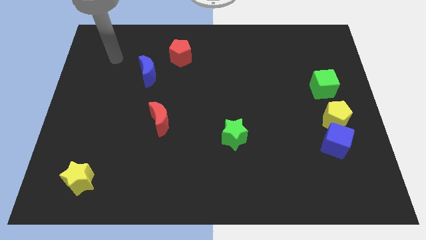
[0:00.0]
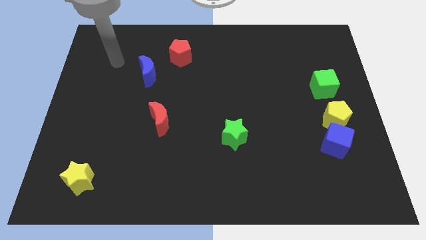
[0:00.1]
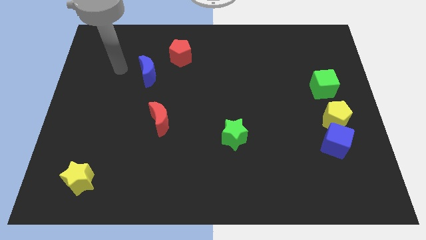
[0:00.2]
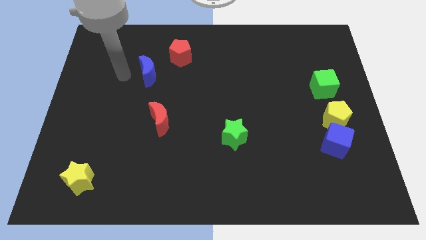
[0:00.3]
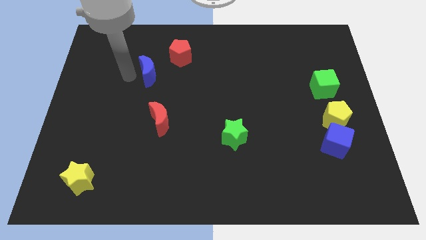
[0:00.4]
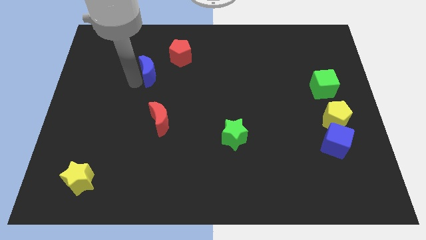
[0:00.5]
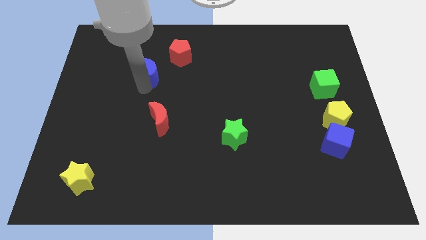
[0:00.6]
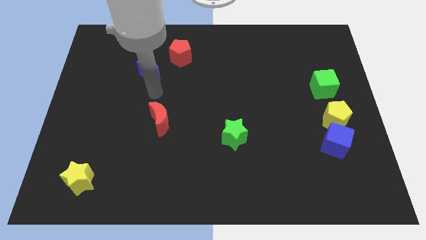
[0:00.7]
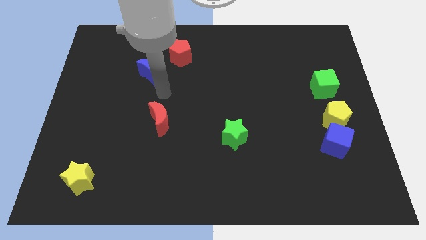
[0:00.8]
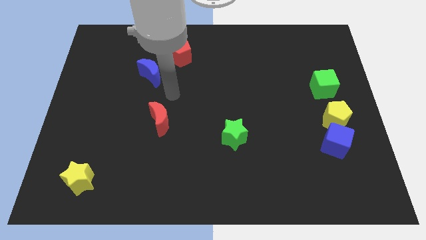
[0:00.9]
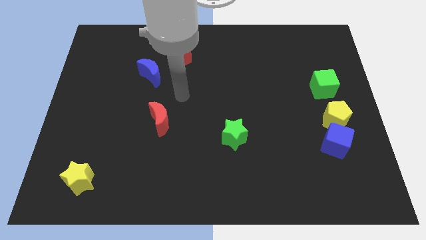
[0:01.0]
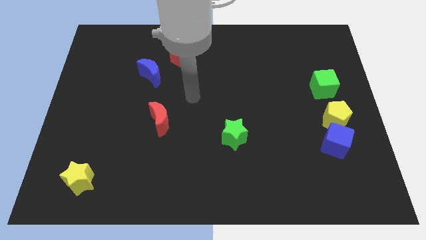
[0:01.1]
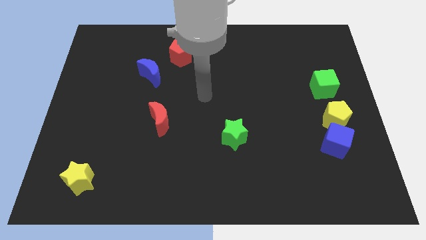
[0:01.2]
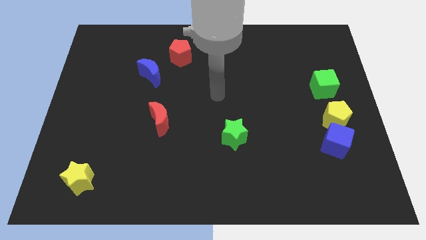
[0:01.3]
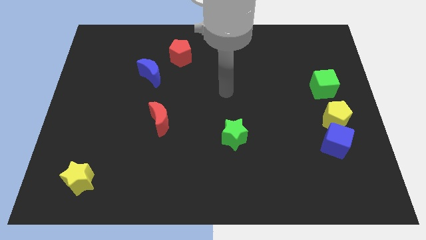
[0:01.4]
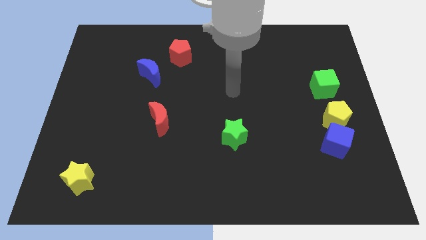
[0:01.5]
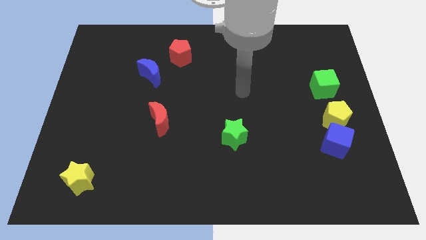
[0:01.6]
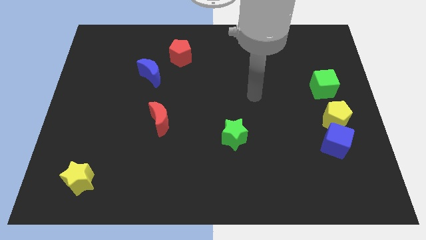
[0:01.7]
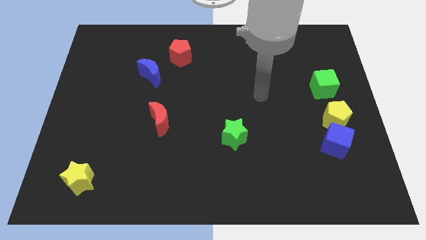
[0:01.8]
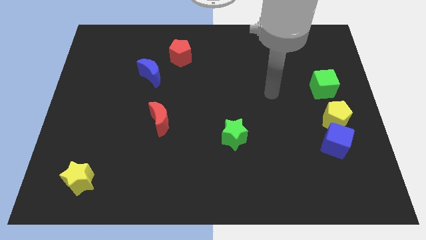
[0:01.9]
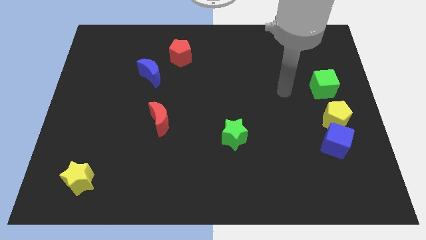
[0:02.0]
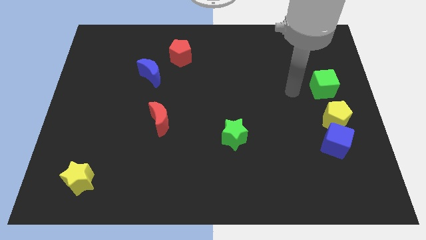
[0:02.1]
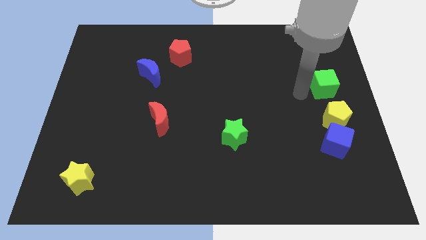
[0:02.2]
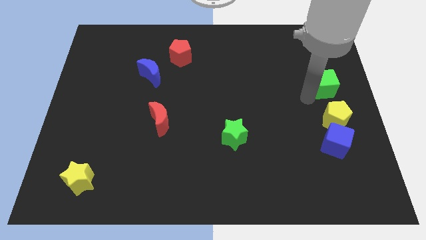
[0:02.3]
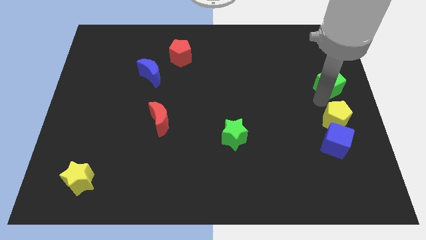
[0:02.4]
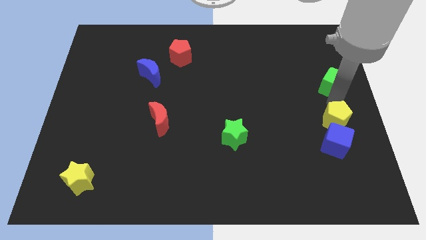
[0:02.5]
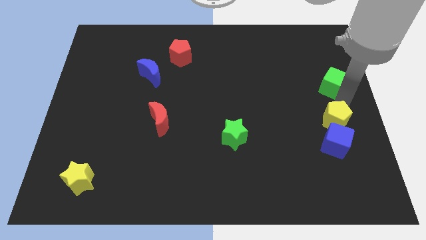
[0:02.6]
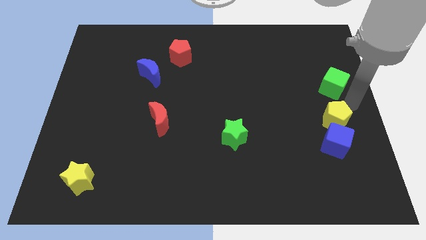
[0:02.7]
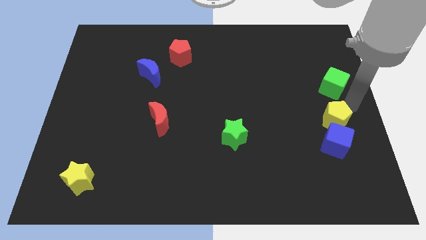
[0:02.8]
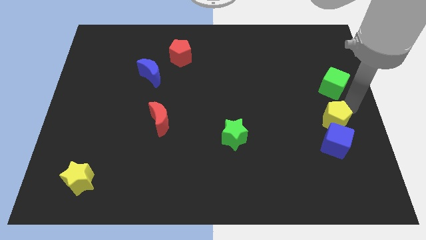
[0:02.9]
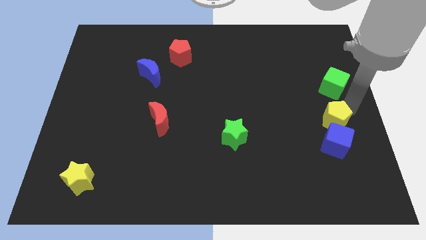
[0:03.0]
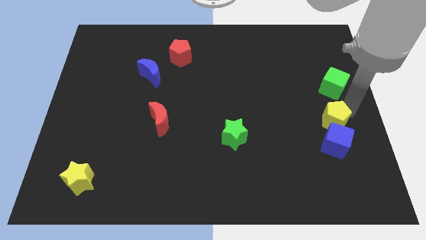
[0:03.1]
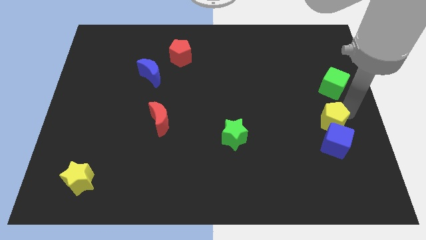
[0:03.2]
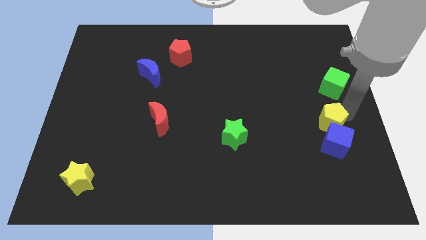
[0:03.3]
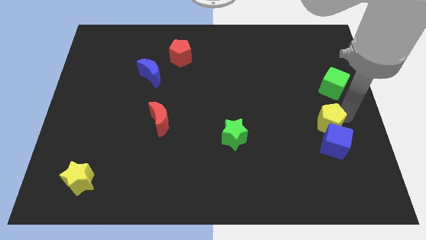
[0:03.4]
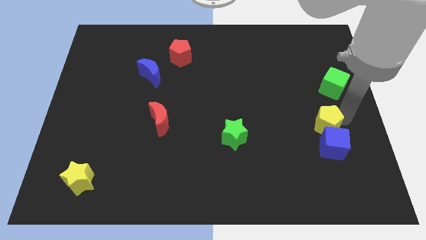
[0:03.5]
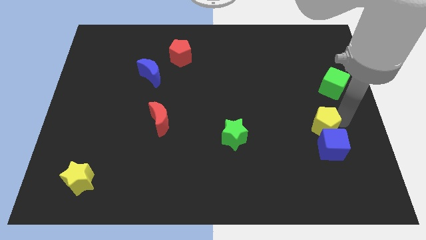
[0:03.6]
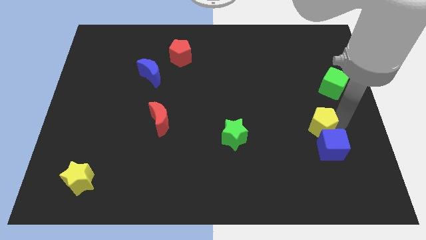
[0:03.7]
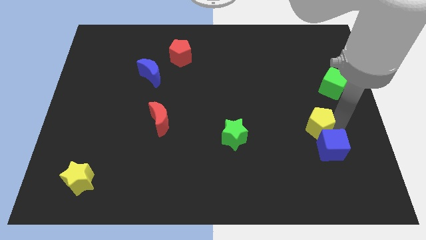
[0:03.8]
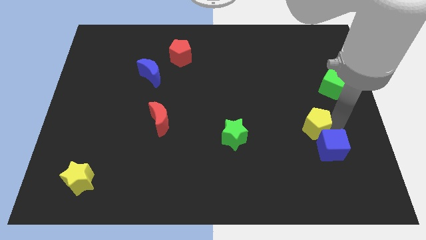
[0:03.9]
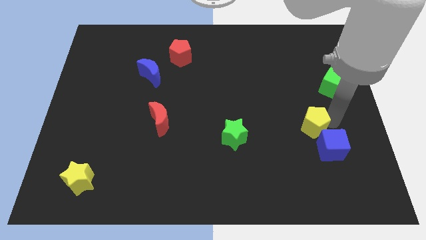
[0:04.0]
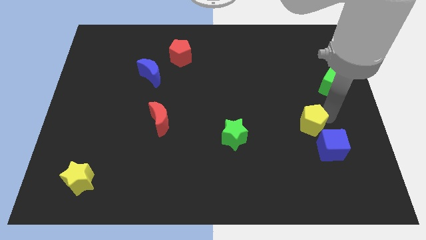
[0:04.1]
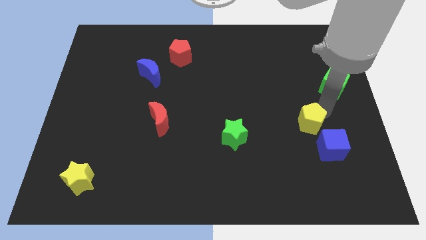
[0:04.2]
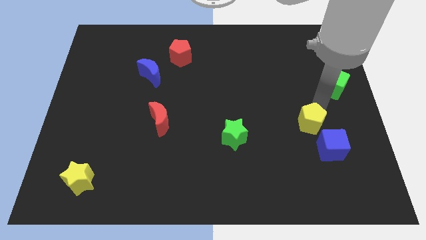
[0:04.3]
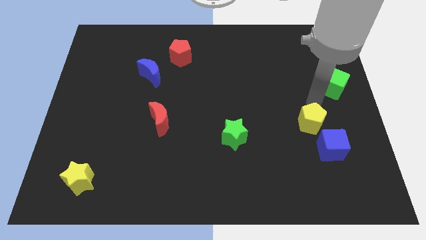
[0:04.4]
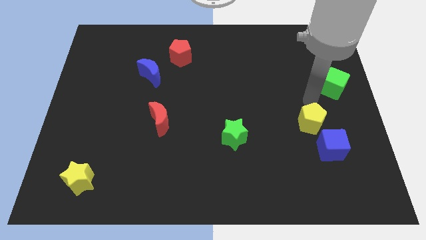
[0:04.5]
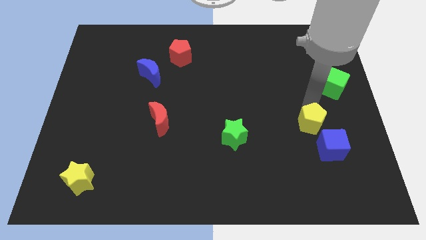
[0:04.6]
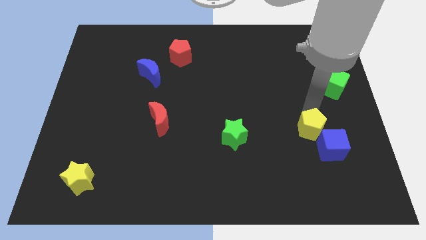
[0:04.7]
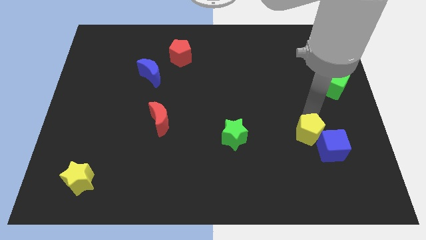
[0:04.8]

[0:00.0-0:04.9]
slide the yellow pentagon a little bit diagonally downwards and to the left

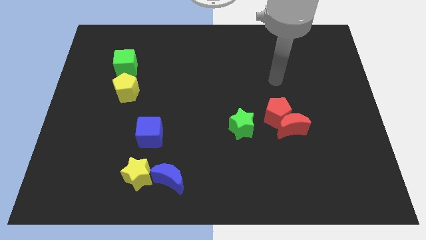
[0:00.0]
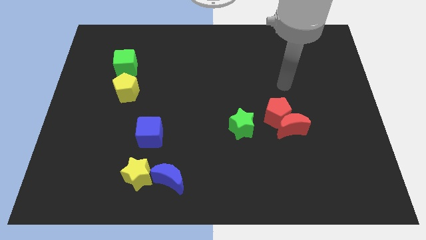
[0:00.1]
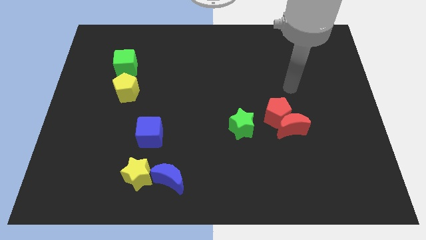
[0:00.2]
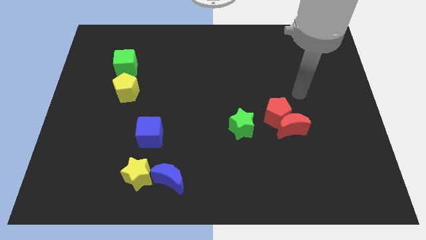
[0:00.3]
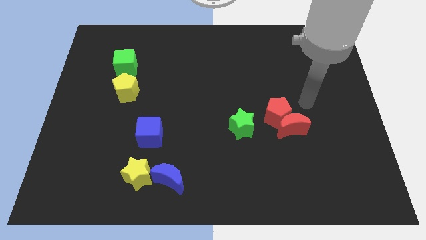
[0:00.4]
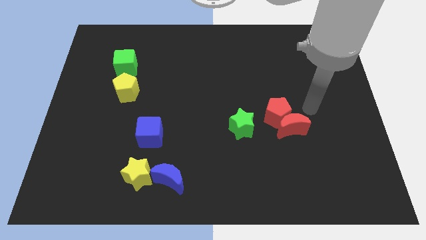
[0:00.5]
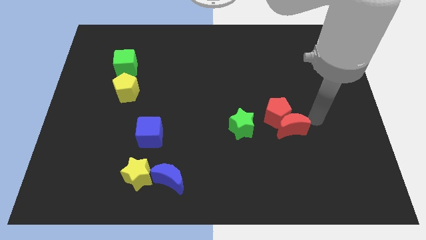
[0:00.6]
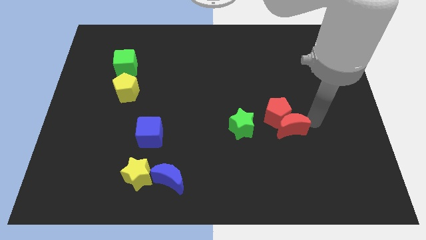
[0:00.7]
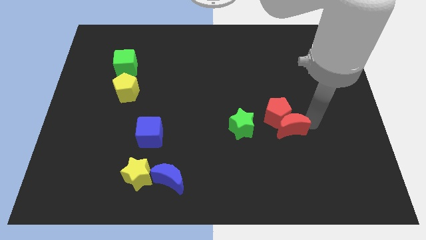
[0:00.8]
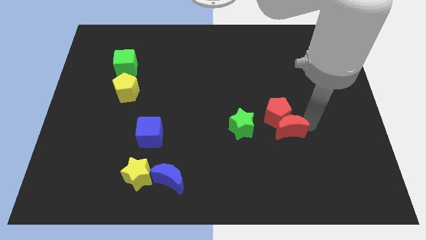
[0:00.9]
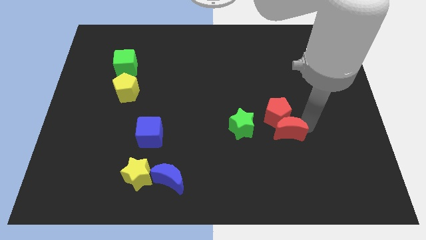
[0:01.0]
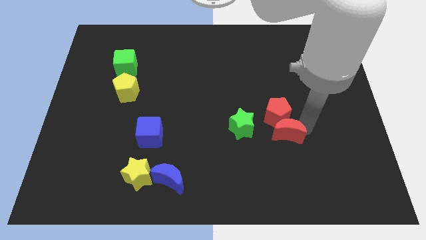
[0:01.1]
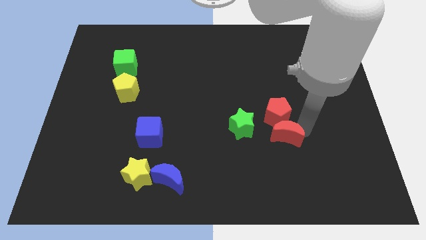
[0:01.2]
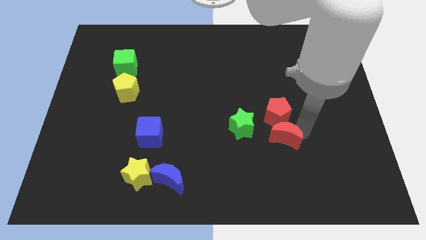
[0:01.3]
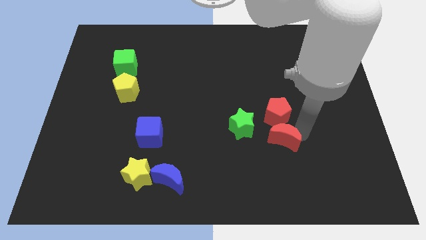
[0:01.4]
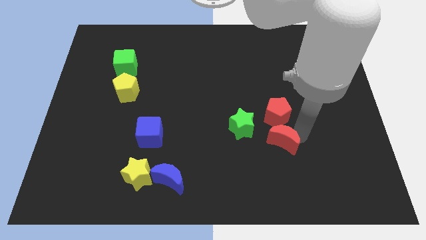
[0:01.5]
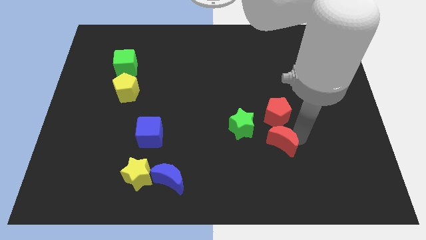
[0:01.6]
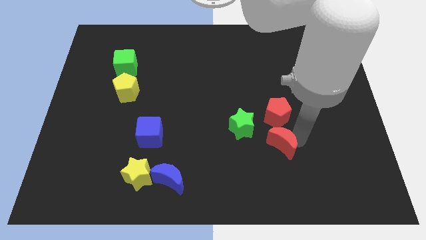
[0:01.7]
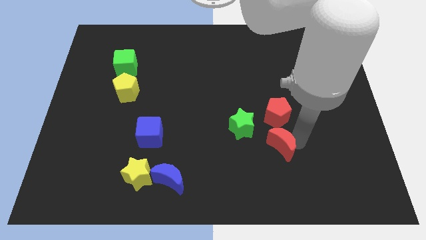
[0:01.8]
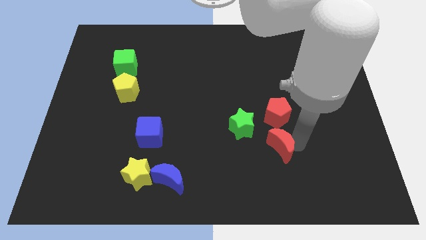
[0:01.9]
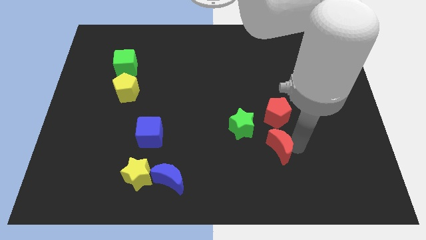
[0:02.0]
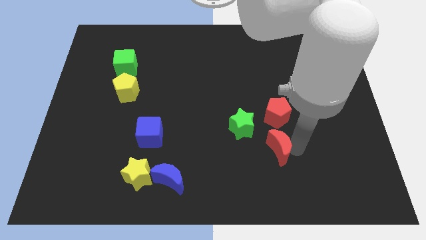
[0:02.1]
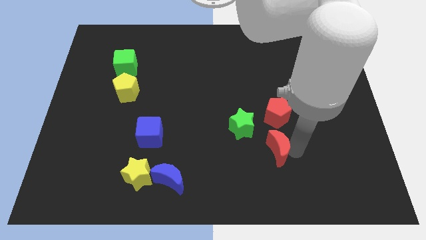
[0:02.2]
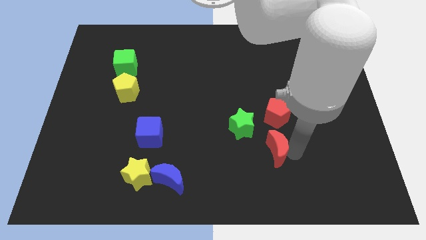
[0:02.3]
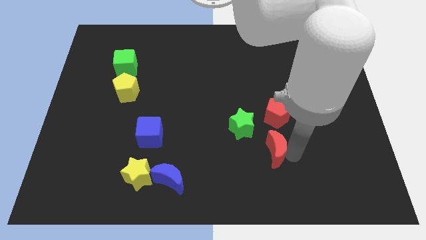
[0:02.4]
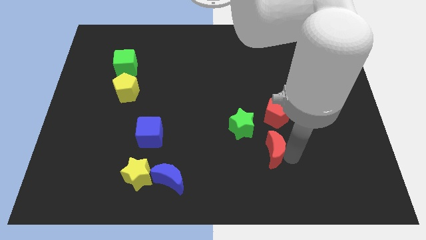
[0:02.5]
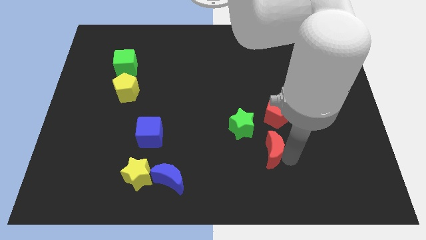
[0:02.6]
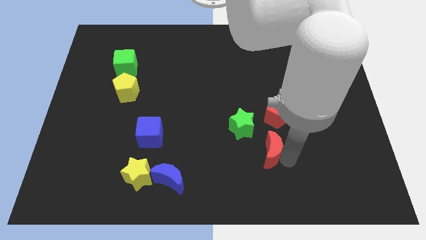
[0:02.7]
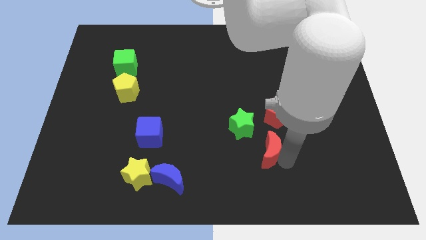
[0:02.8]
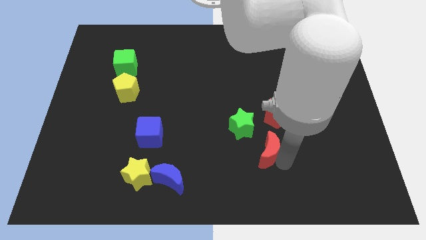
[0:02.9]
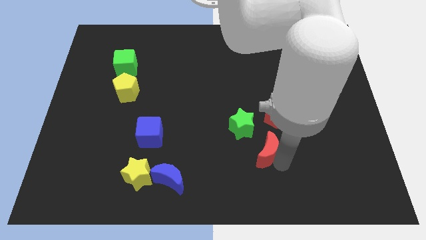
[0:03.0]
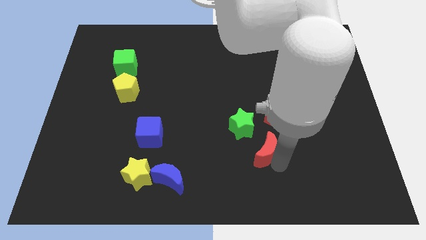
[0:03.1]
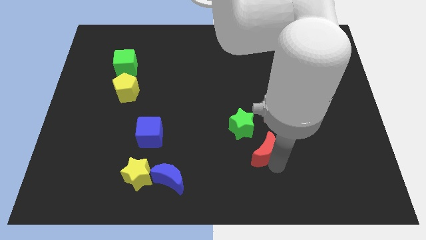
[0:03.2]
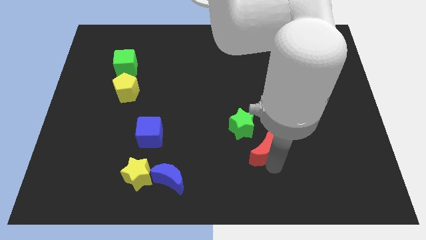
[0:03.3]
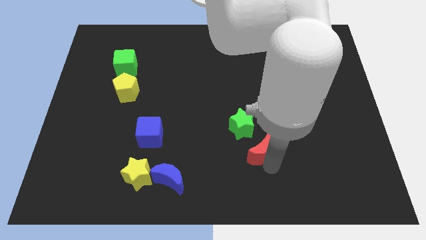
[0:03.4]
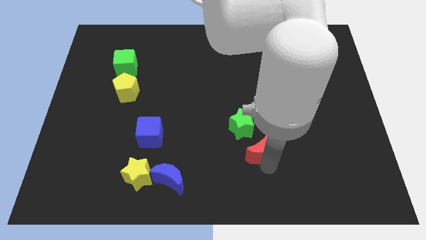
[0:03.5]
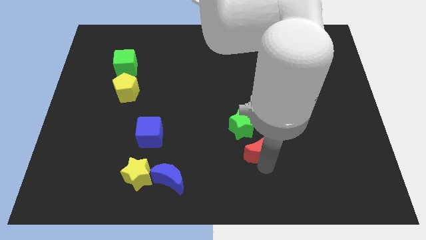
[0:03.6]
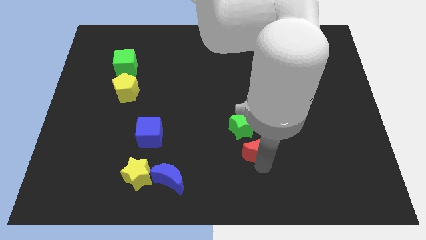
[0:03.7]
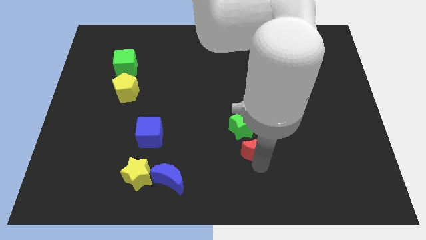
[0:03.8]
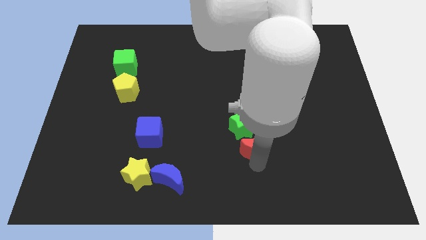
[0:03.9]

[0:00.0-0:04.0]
push the red moon a little left
